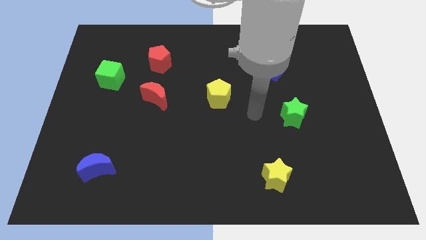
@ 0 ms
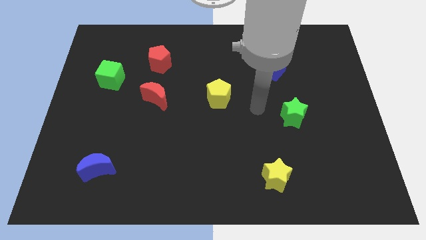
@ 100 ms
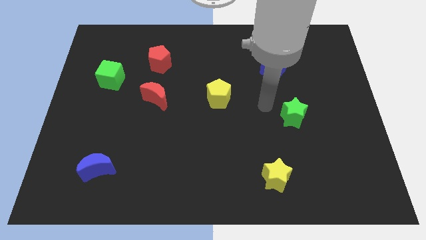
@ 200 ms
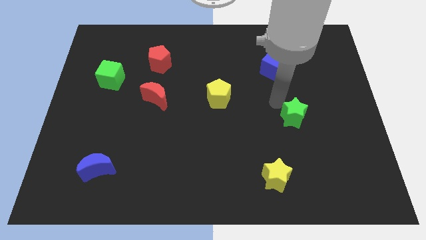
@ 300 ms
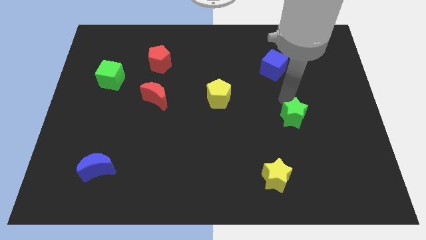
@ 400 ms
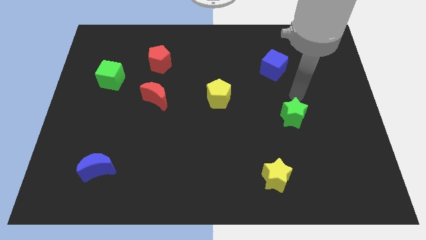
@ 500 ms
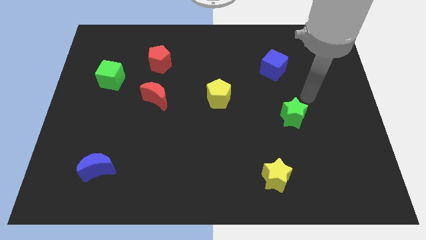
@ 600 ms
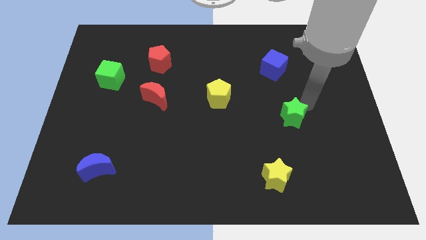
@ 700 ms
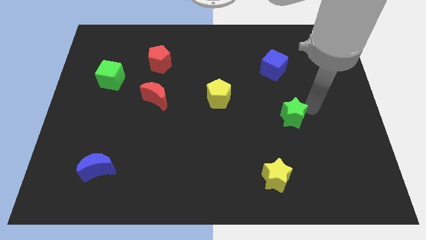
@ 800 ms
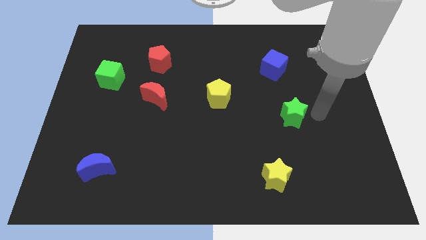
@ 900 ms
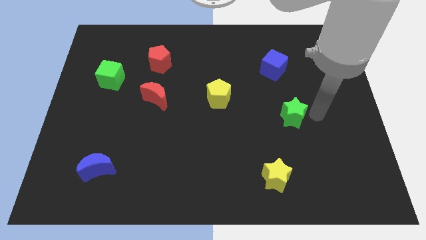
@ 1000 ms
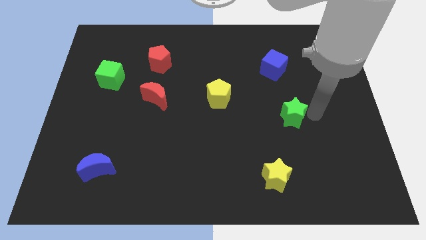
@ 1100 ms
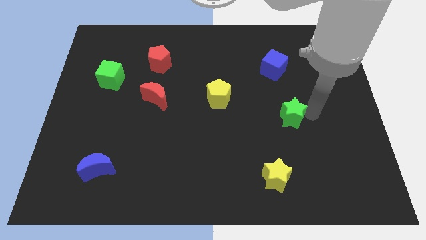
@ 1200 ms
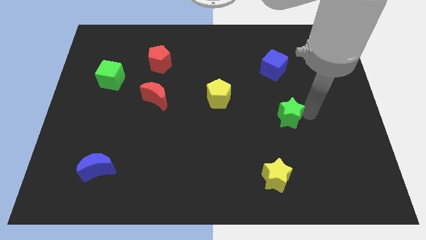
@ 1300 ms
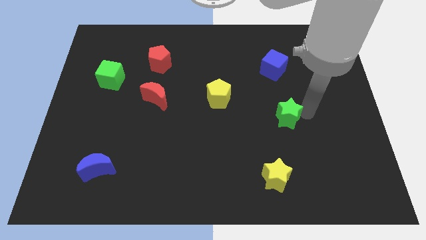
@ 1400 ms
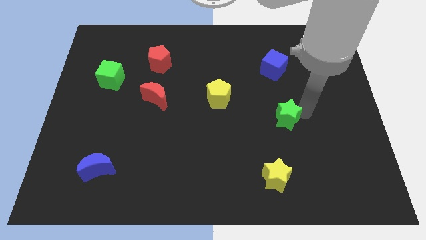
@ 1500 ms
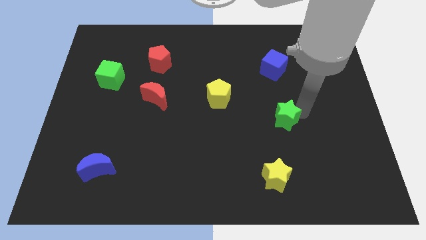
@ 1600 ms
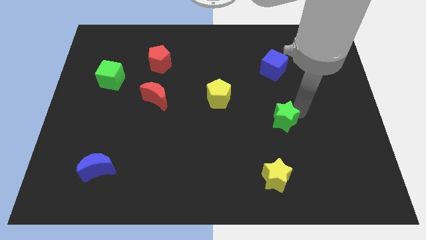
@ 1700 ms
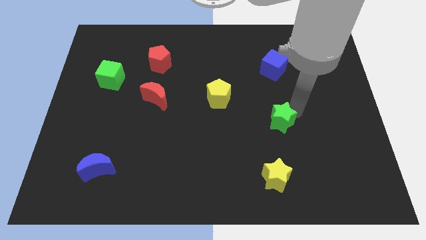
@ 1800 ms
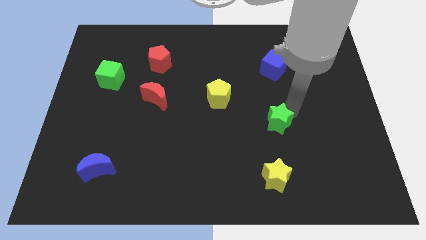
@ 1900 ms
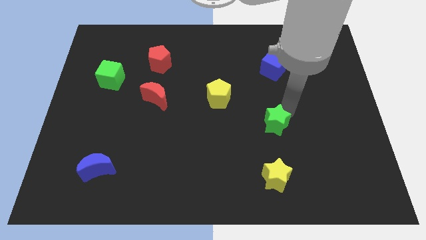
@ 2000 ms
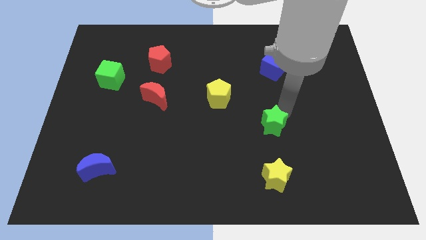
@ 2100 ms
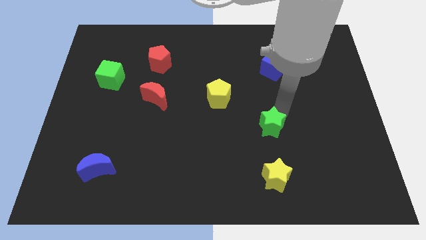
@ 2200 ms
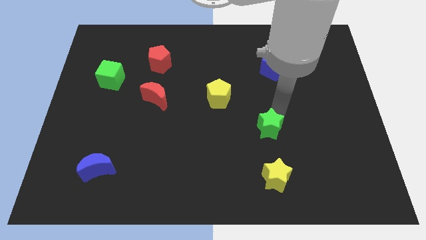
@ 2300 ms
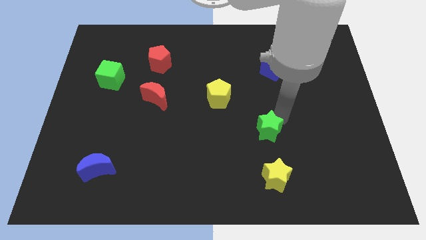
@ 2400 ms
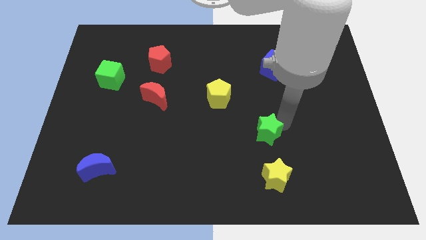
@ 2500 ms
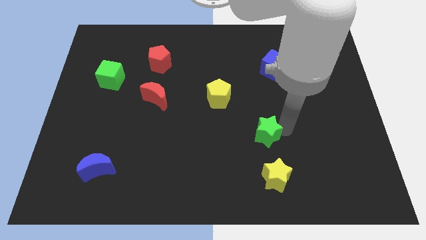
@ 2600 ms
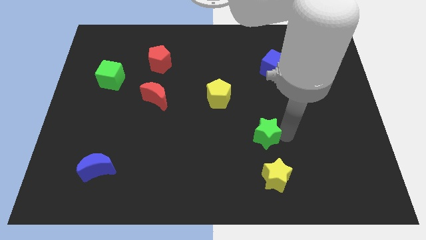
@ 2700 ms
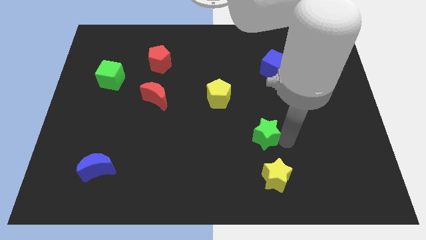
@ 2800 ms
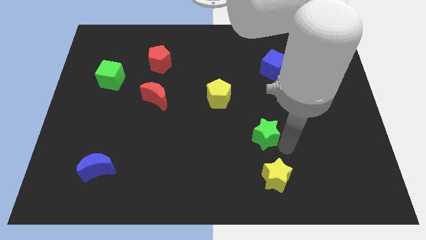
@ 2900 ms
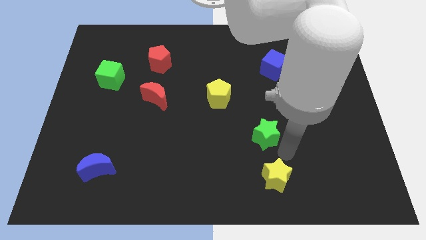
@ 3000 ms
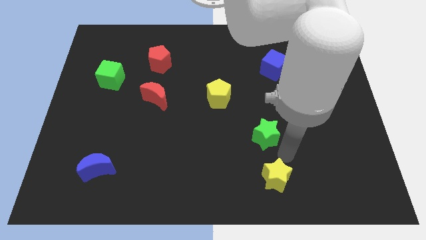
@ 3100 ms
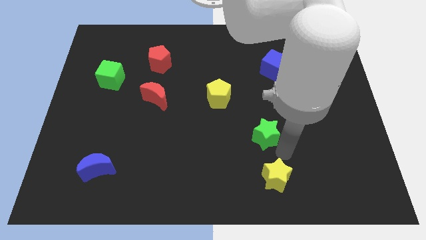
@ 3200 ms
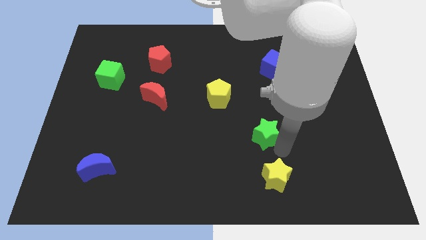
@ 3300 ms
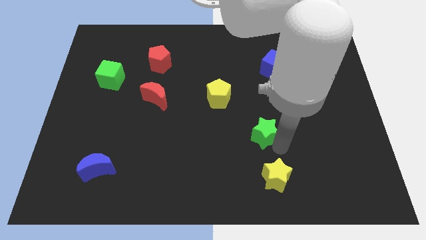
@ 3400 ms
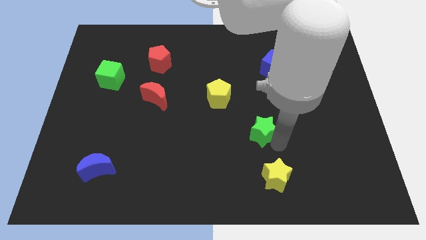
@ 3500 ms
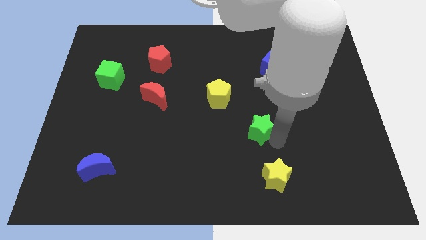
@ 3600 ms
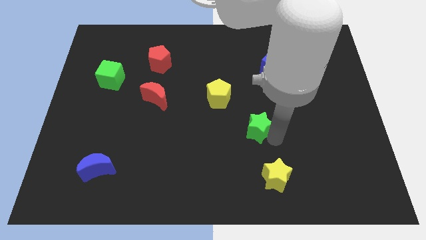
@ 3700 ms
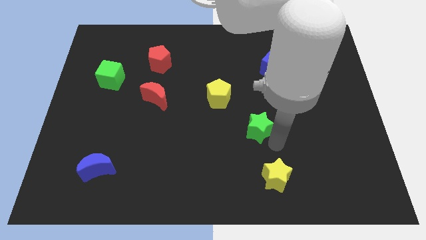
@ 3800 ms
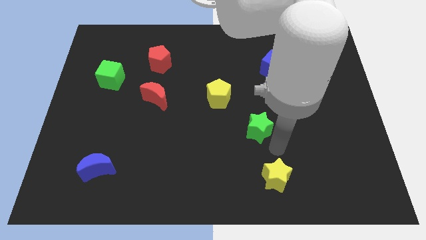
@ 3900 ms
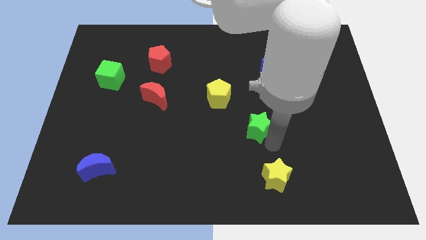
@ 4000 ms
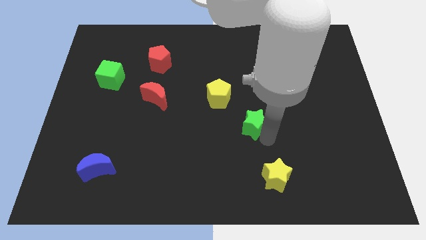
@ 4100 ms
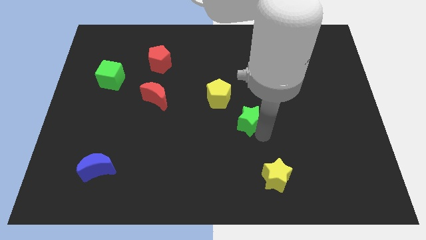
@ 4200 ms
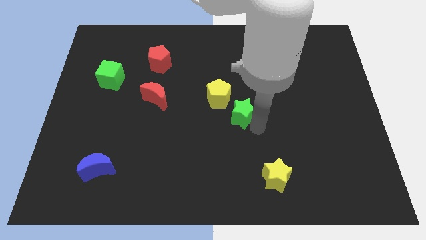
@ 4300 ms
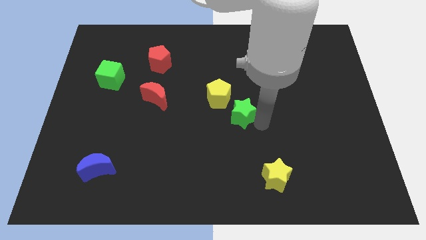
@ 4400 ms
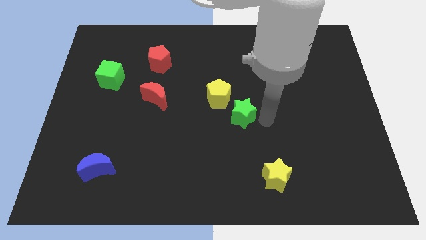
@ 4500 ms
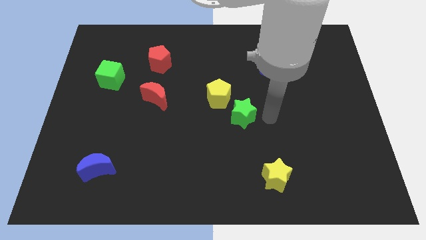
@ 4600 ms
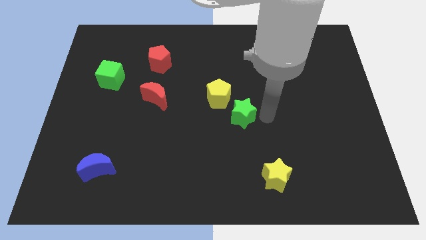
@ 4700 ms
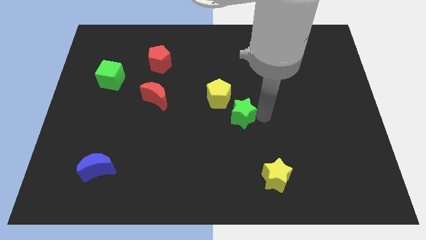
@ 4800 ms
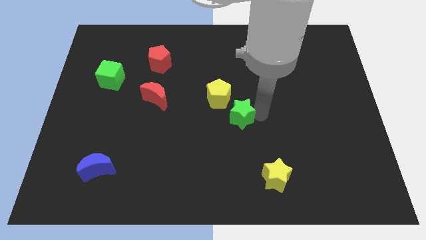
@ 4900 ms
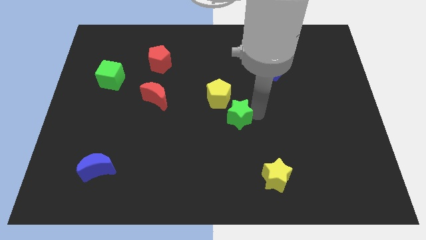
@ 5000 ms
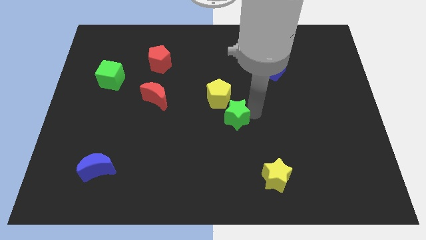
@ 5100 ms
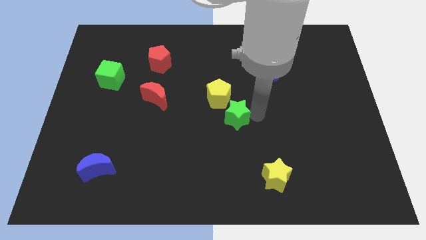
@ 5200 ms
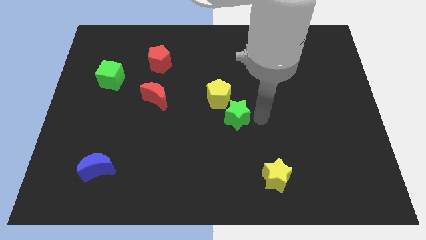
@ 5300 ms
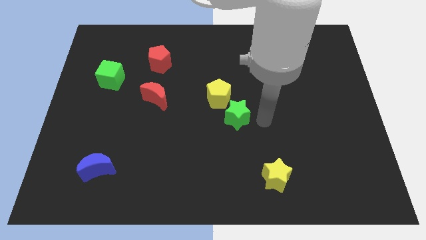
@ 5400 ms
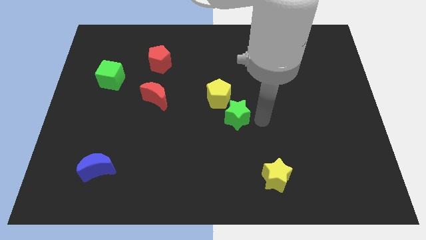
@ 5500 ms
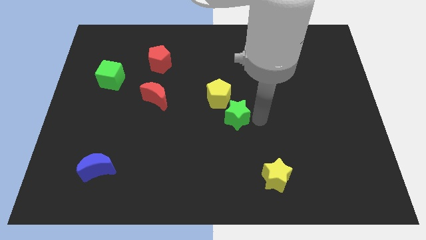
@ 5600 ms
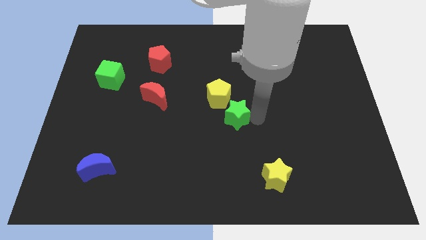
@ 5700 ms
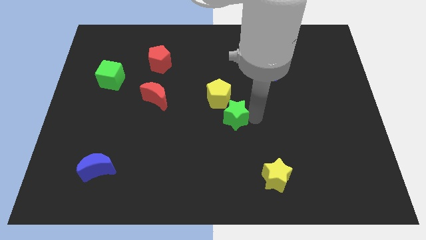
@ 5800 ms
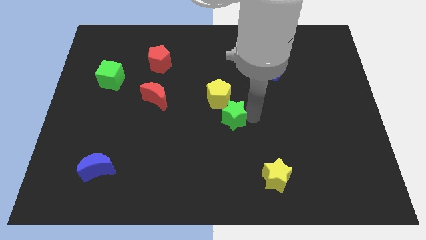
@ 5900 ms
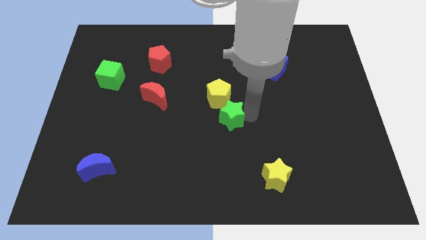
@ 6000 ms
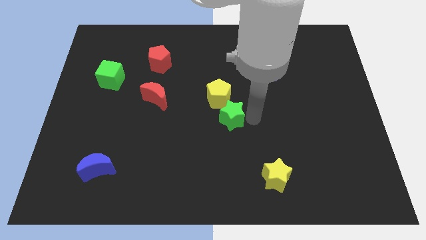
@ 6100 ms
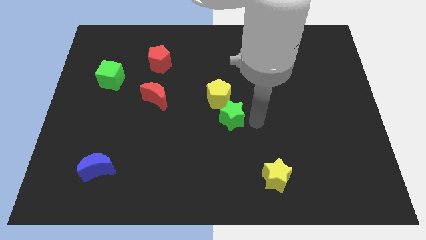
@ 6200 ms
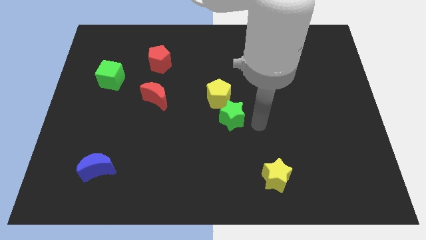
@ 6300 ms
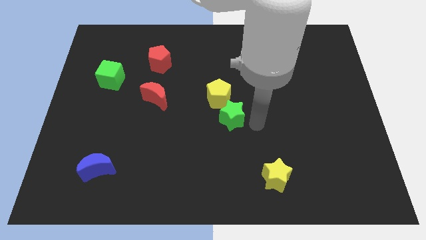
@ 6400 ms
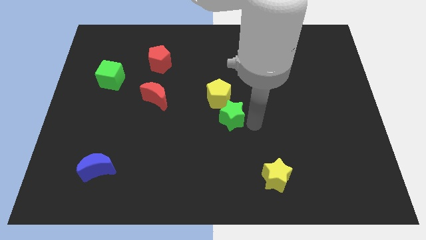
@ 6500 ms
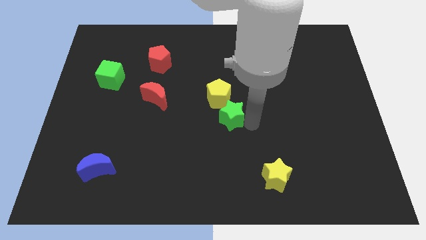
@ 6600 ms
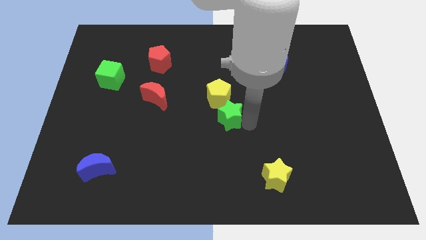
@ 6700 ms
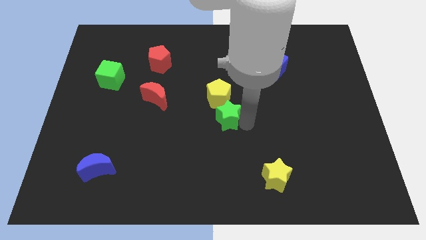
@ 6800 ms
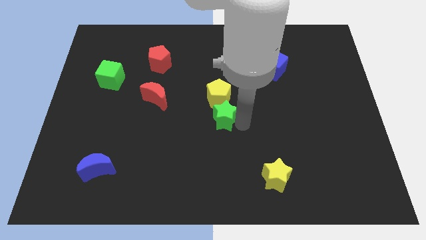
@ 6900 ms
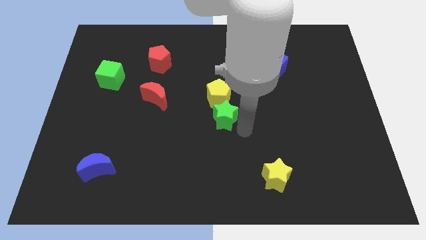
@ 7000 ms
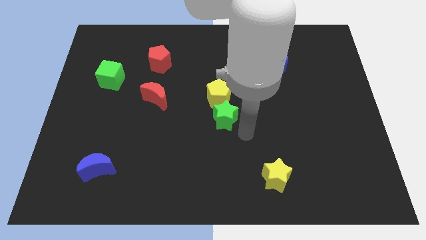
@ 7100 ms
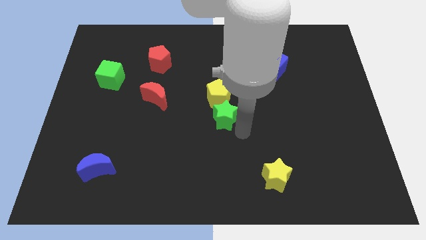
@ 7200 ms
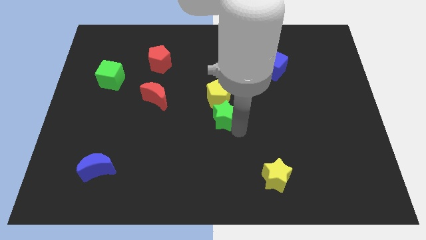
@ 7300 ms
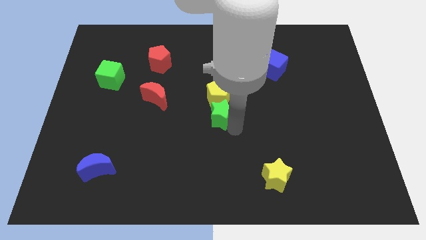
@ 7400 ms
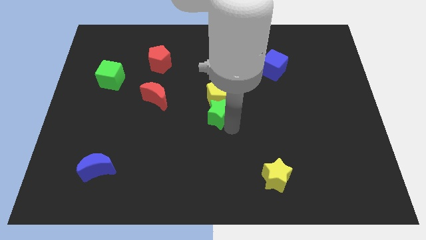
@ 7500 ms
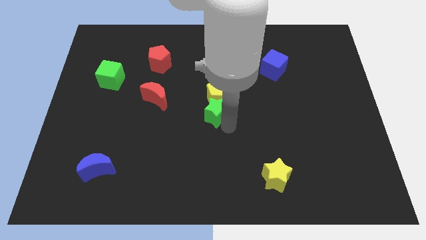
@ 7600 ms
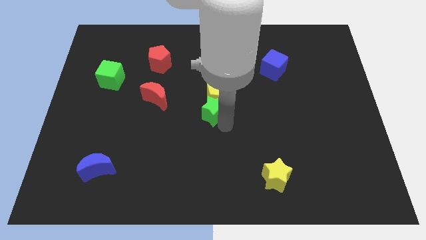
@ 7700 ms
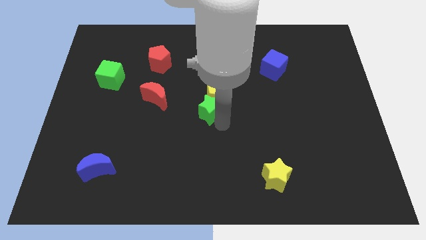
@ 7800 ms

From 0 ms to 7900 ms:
put the green star just right of the red moon
